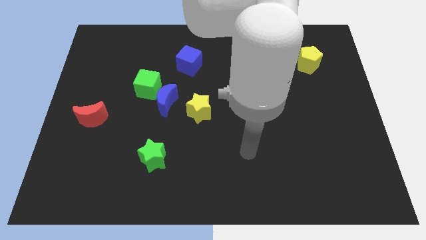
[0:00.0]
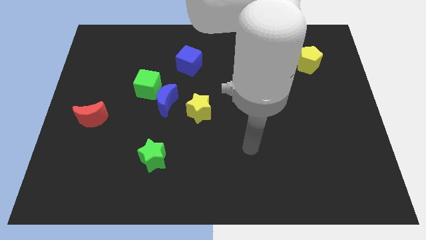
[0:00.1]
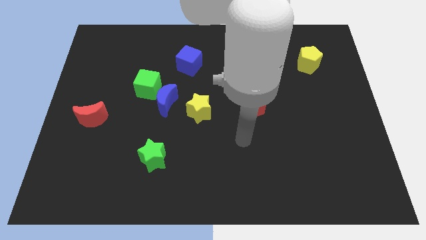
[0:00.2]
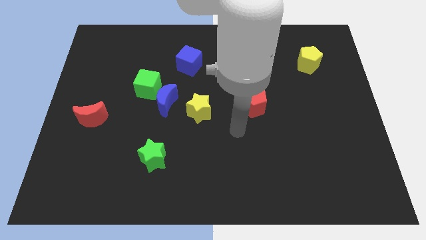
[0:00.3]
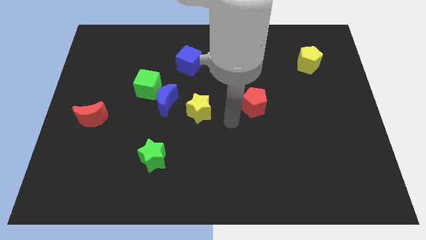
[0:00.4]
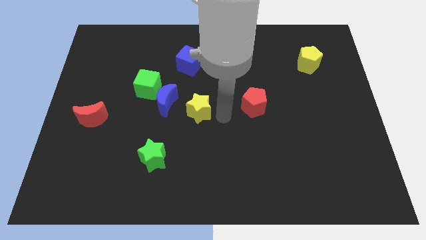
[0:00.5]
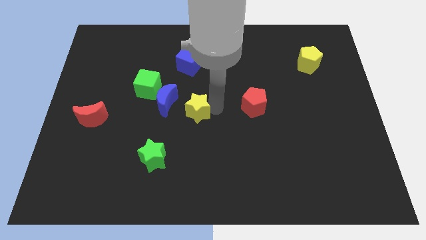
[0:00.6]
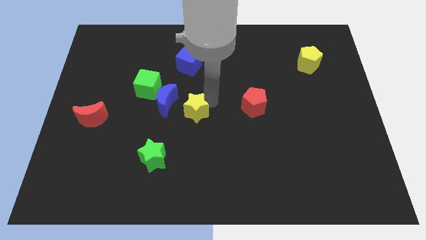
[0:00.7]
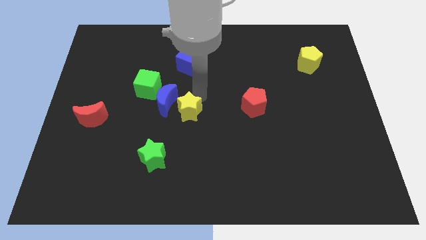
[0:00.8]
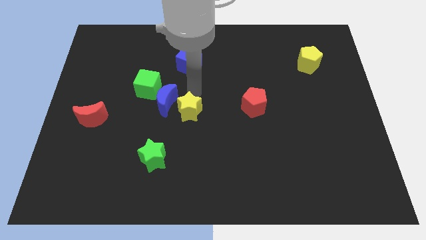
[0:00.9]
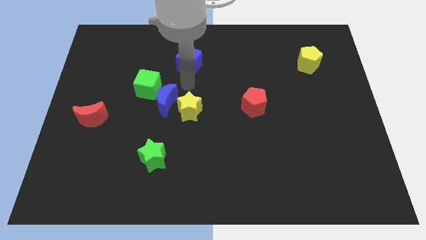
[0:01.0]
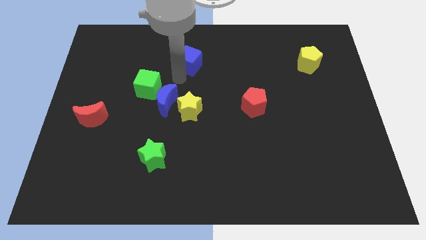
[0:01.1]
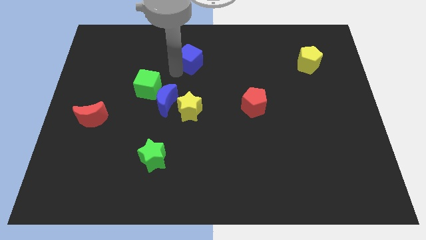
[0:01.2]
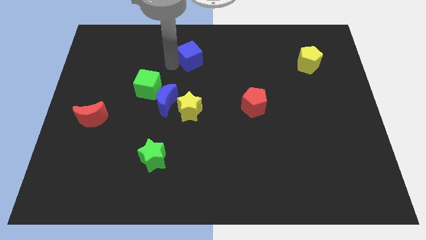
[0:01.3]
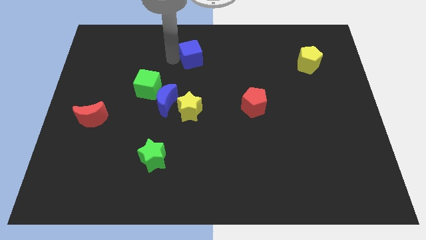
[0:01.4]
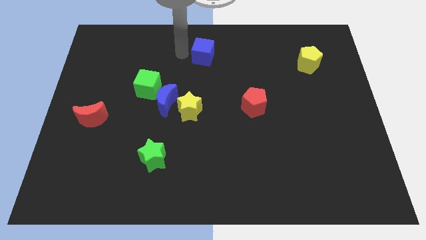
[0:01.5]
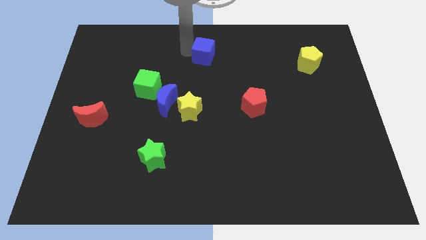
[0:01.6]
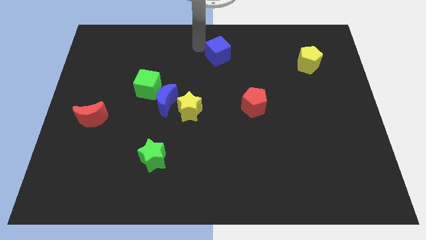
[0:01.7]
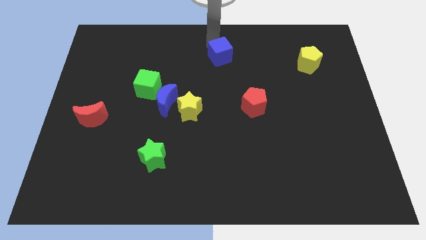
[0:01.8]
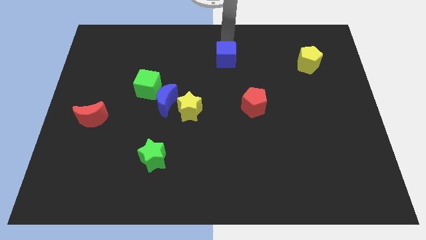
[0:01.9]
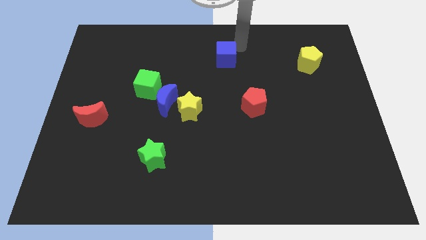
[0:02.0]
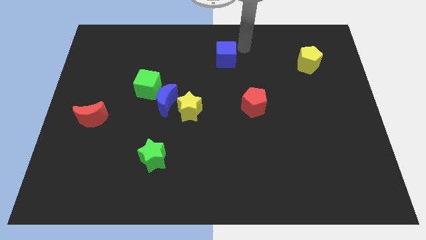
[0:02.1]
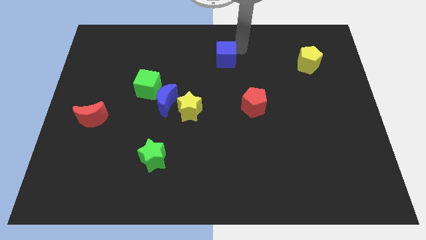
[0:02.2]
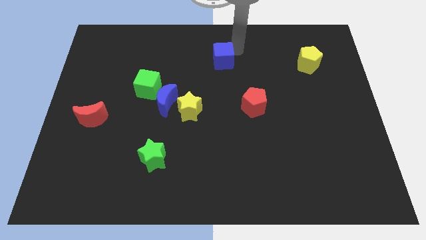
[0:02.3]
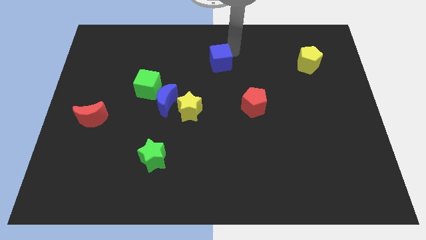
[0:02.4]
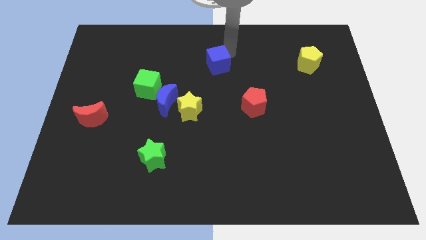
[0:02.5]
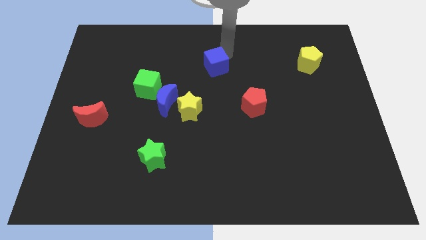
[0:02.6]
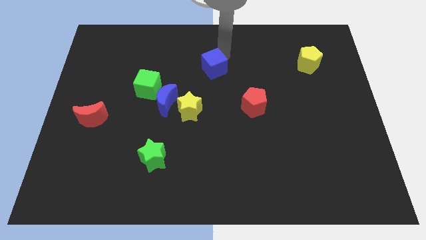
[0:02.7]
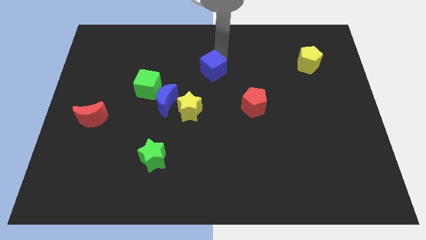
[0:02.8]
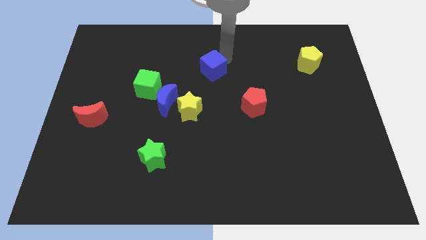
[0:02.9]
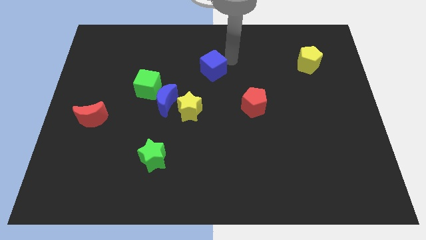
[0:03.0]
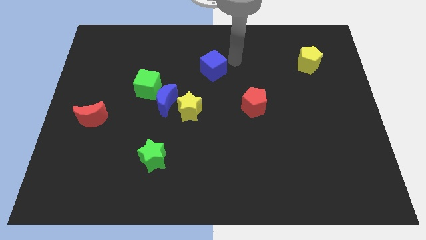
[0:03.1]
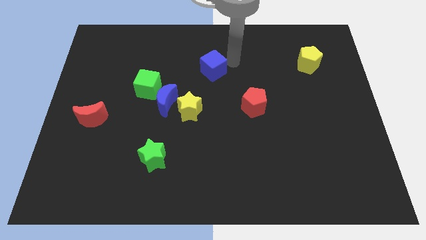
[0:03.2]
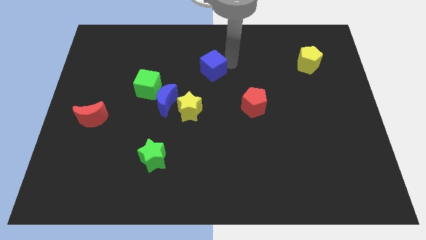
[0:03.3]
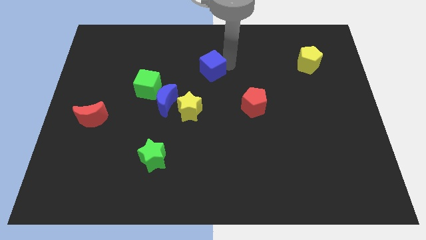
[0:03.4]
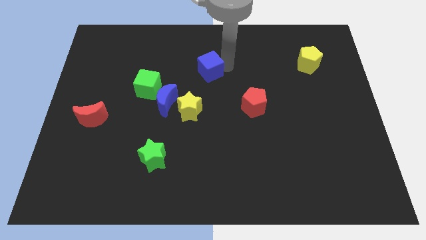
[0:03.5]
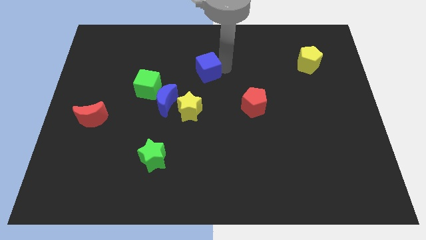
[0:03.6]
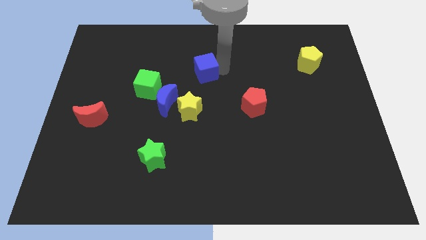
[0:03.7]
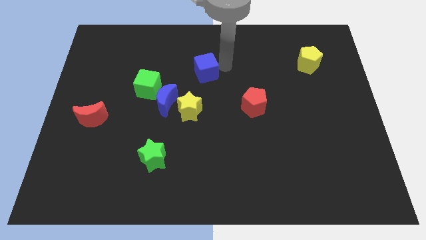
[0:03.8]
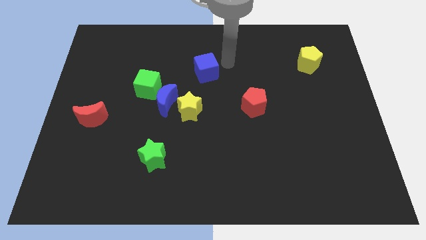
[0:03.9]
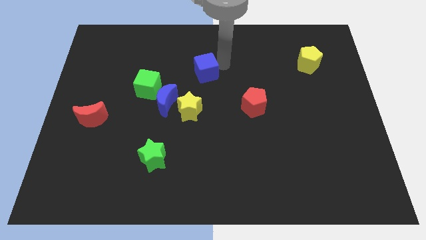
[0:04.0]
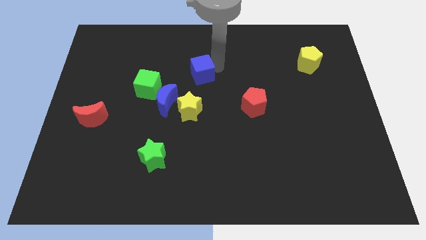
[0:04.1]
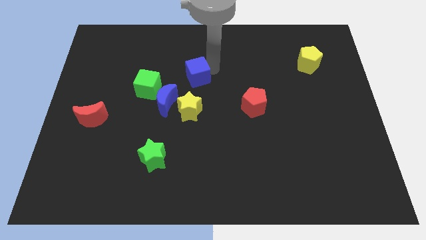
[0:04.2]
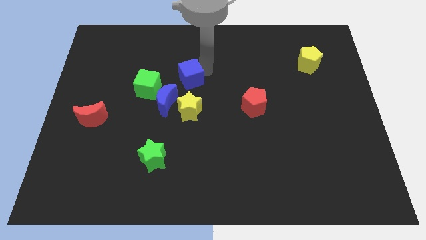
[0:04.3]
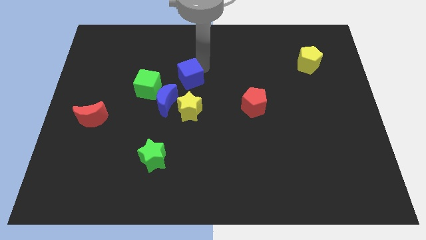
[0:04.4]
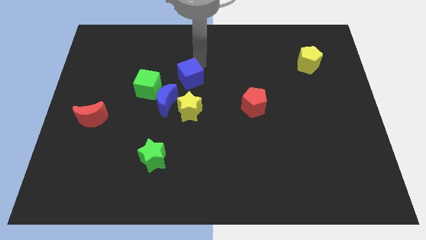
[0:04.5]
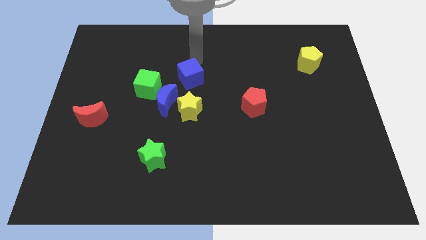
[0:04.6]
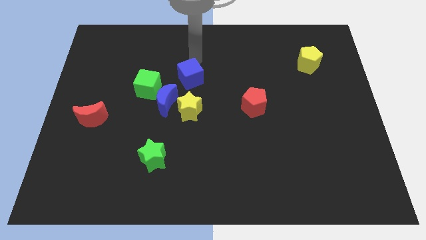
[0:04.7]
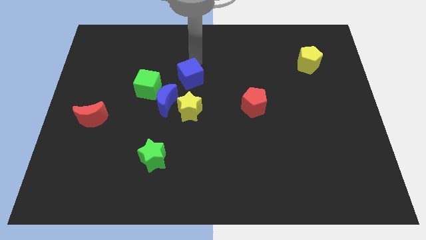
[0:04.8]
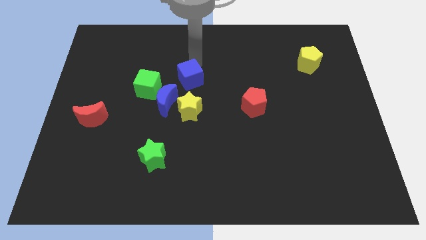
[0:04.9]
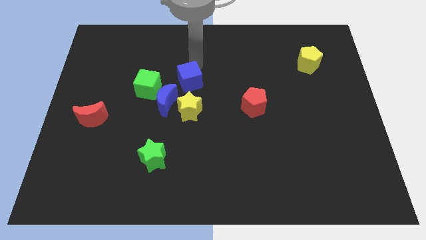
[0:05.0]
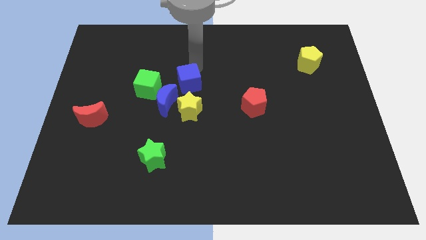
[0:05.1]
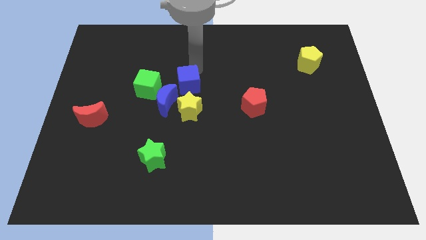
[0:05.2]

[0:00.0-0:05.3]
slide the blue cube slightly downwards

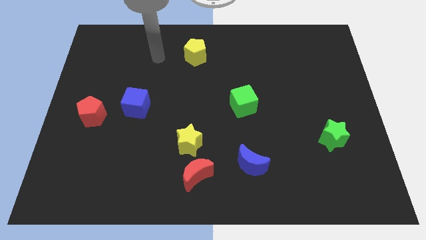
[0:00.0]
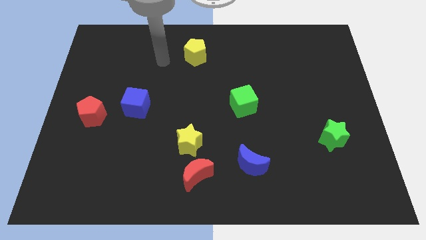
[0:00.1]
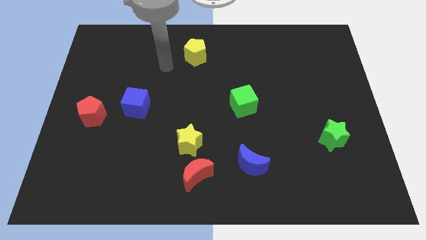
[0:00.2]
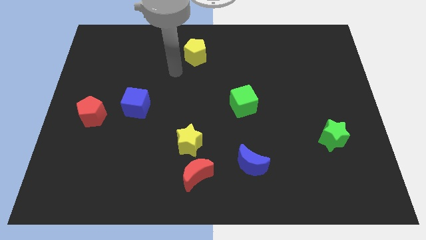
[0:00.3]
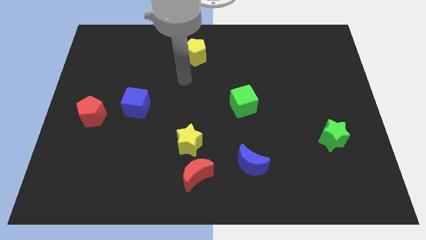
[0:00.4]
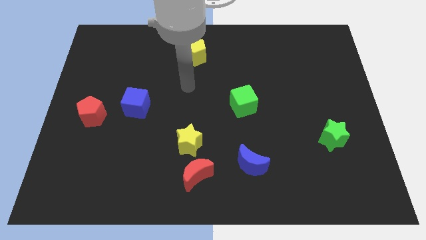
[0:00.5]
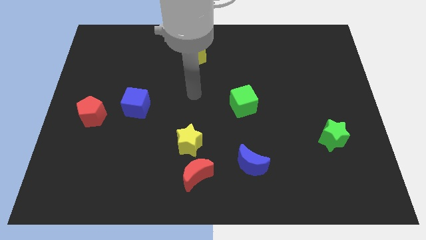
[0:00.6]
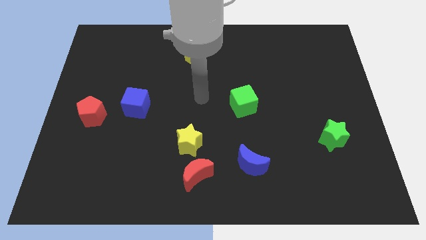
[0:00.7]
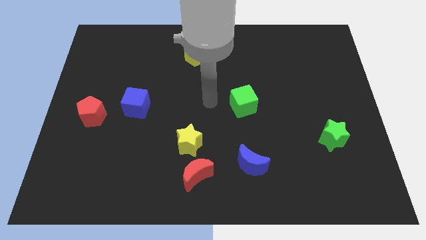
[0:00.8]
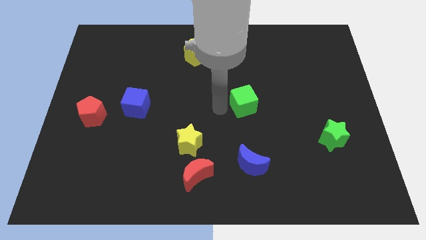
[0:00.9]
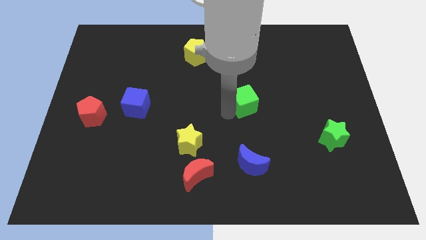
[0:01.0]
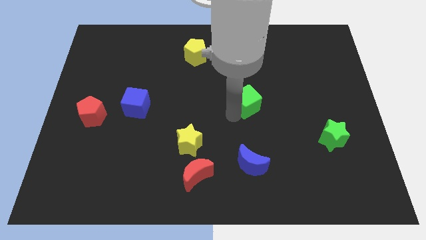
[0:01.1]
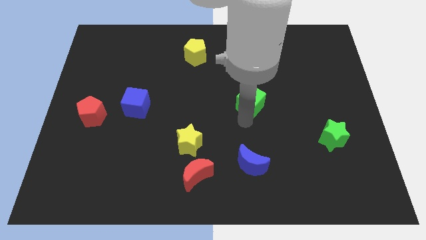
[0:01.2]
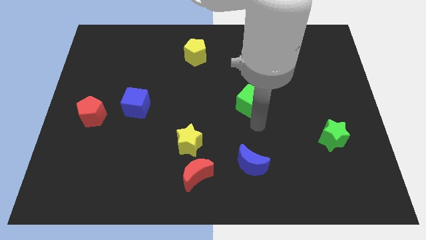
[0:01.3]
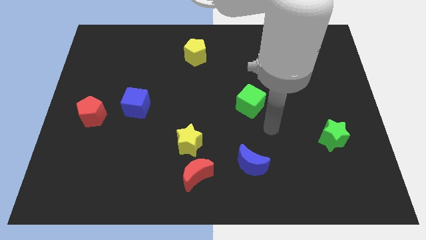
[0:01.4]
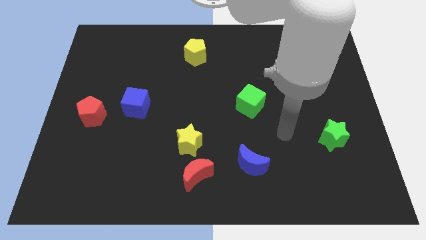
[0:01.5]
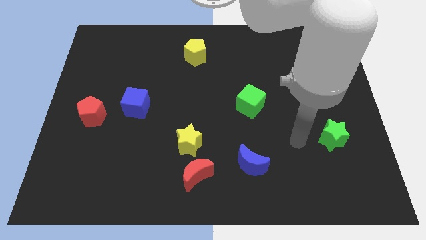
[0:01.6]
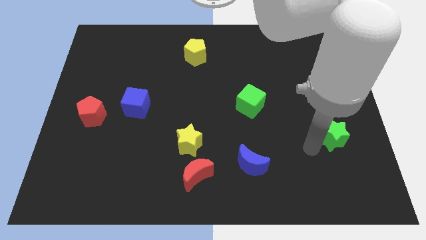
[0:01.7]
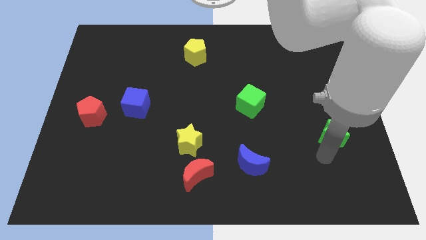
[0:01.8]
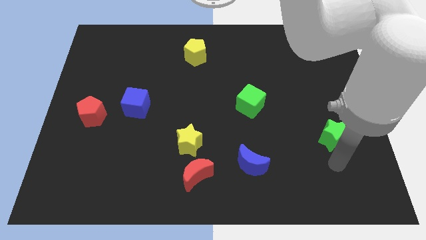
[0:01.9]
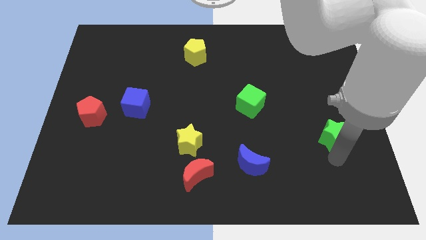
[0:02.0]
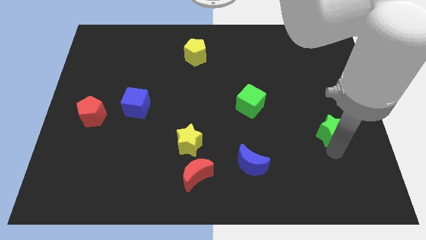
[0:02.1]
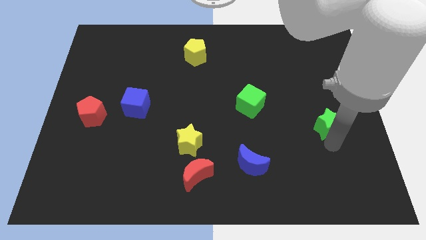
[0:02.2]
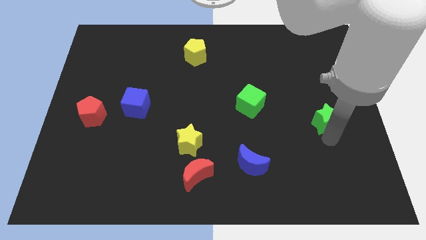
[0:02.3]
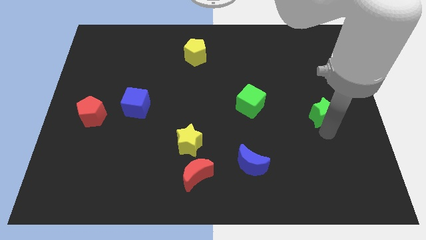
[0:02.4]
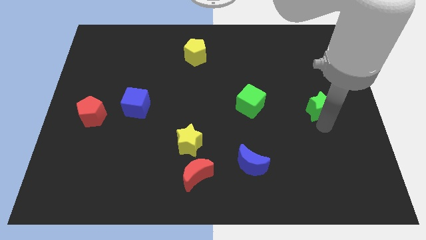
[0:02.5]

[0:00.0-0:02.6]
slide the green star slightly upwards

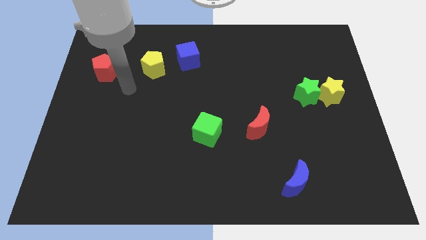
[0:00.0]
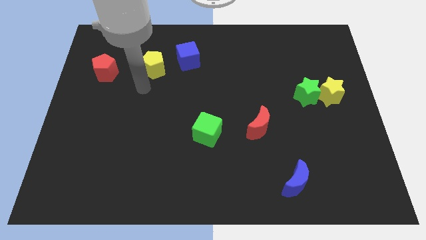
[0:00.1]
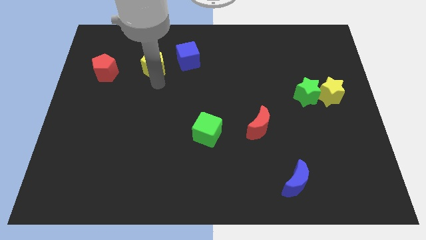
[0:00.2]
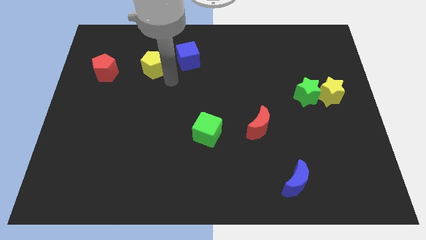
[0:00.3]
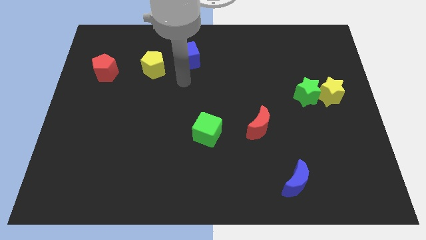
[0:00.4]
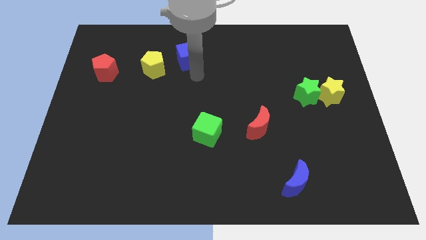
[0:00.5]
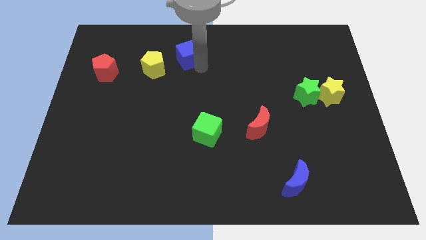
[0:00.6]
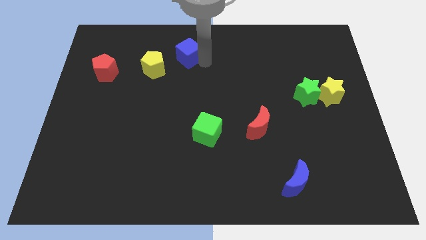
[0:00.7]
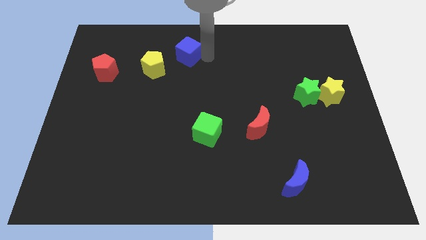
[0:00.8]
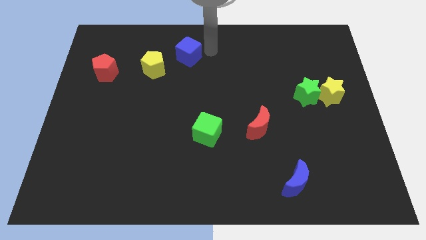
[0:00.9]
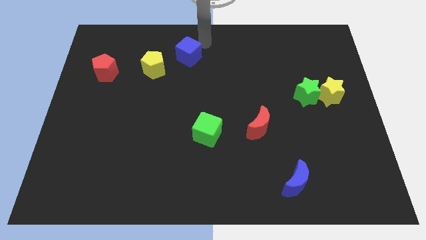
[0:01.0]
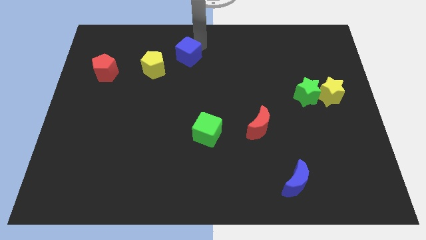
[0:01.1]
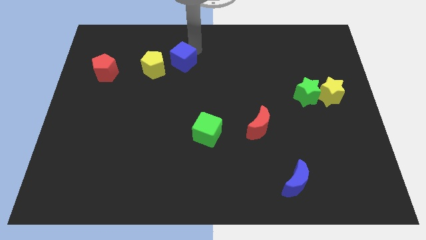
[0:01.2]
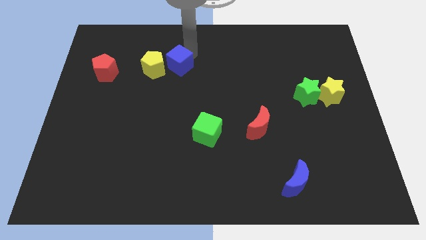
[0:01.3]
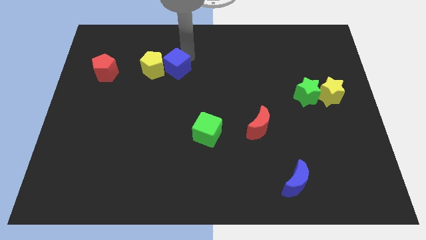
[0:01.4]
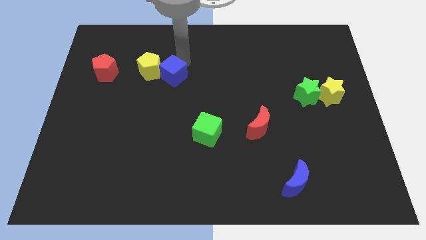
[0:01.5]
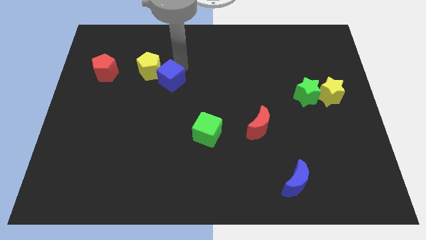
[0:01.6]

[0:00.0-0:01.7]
slide the blue cube a little bit downwards and left
